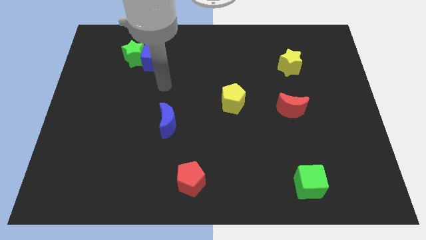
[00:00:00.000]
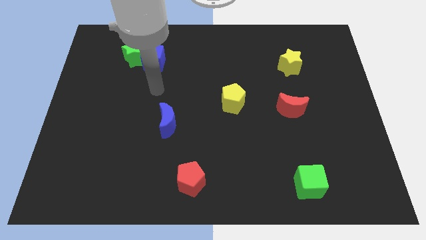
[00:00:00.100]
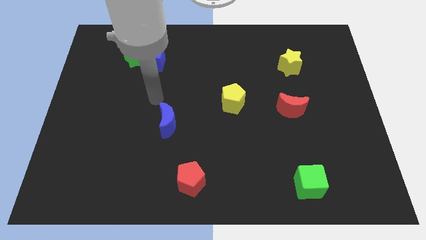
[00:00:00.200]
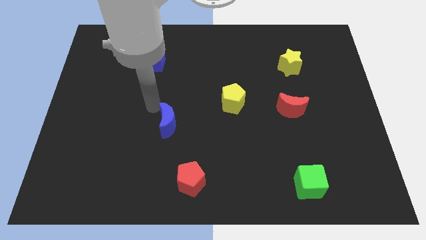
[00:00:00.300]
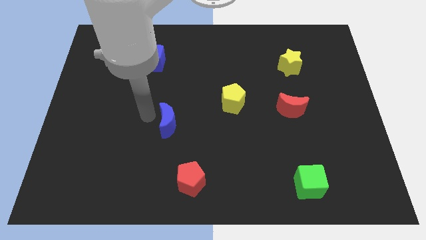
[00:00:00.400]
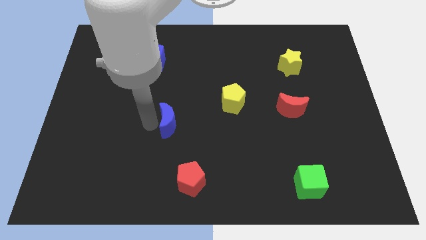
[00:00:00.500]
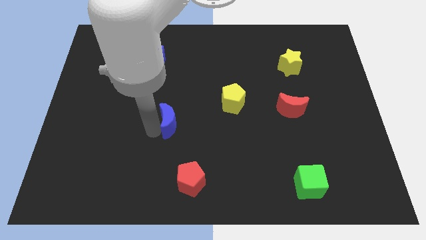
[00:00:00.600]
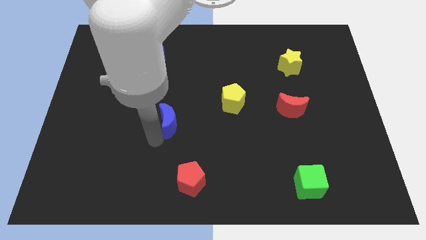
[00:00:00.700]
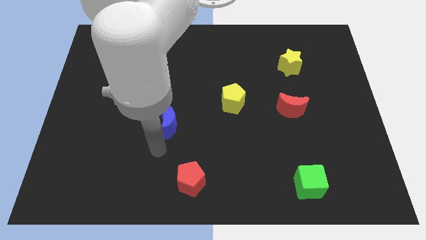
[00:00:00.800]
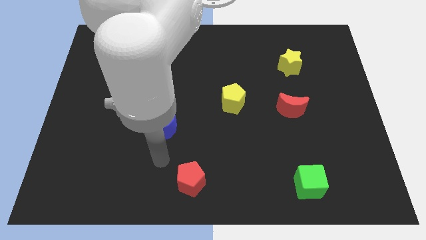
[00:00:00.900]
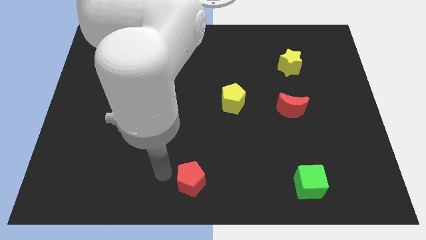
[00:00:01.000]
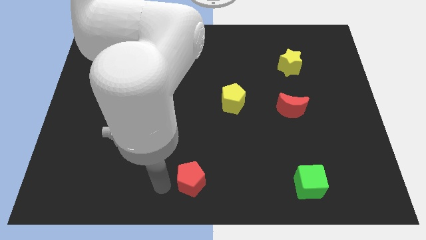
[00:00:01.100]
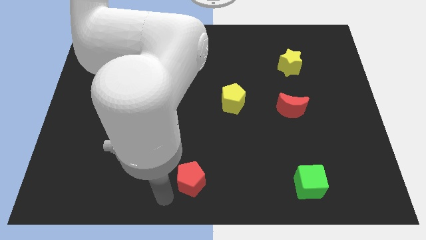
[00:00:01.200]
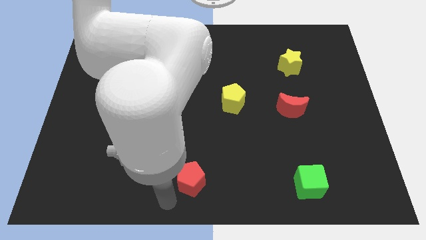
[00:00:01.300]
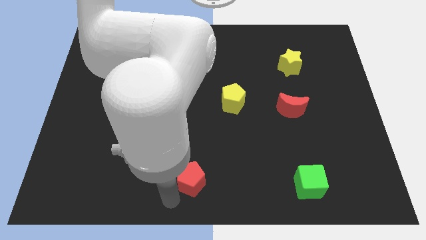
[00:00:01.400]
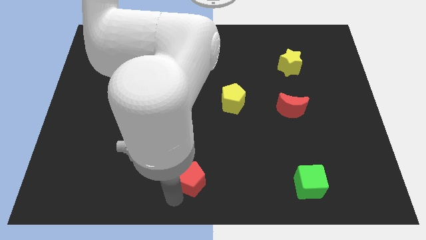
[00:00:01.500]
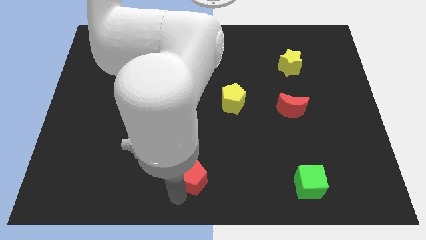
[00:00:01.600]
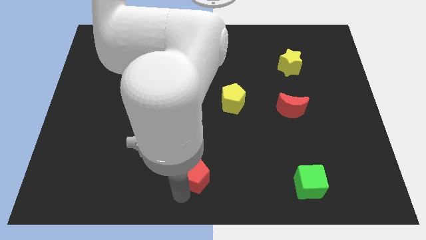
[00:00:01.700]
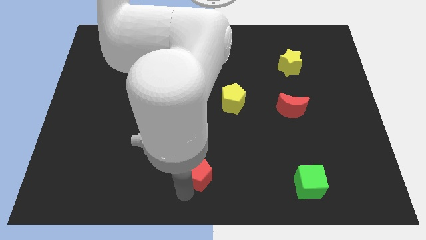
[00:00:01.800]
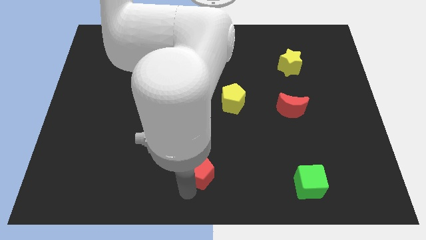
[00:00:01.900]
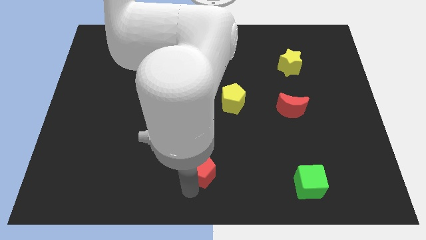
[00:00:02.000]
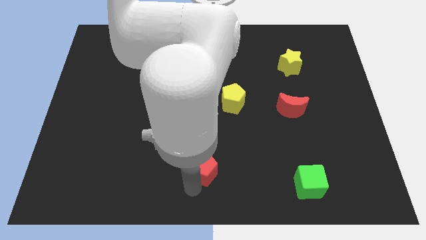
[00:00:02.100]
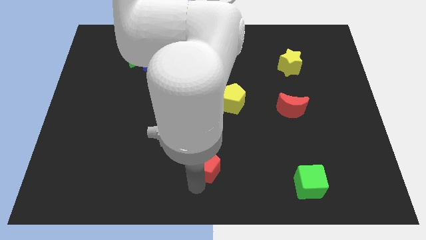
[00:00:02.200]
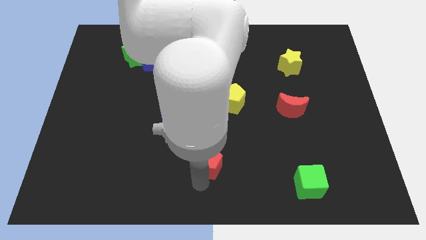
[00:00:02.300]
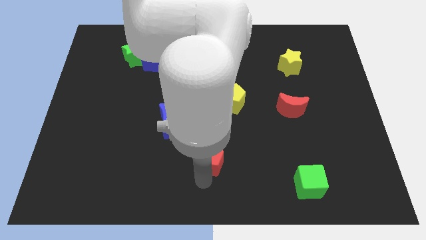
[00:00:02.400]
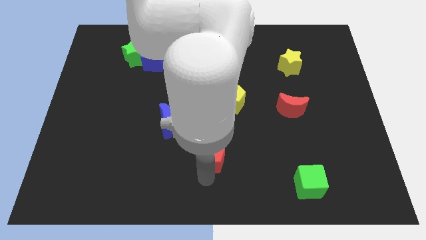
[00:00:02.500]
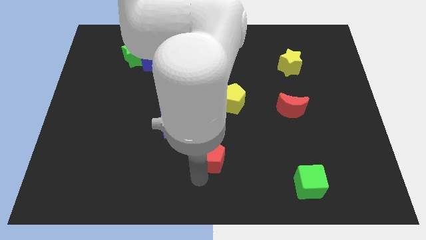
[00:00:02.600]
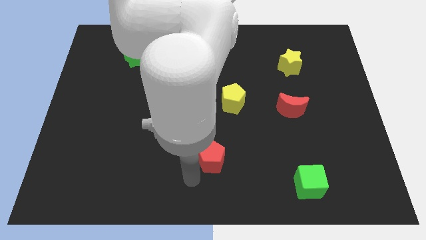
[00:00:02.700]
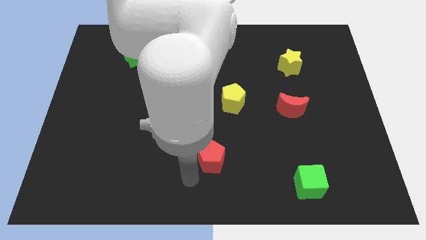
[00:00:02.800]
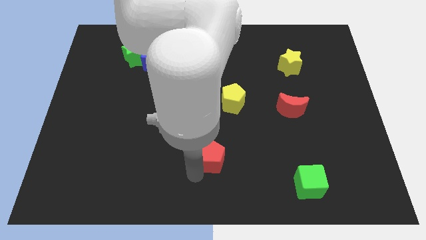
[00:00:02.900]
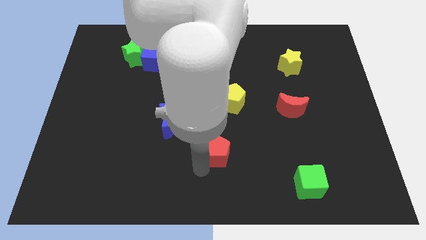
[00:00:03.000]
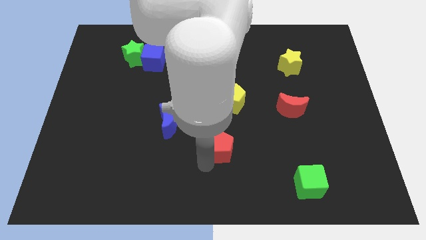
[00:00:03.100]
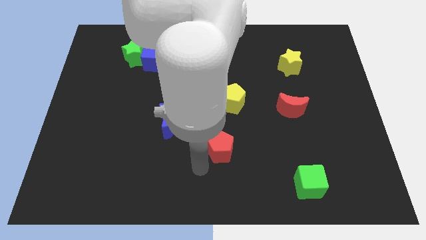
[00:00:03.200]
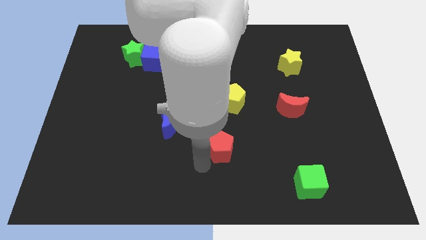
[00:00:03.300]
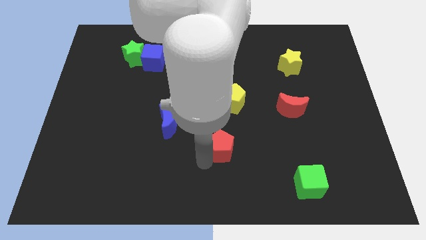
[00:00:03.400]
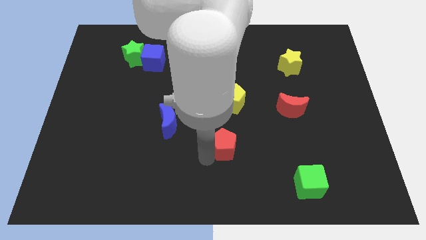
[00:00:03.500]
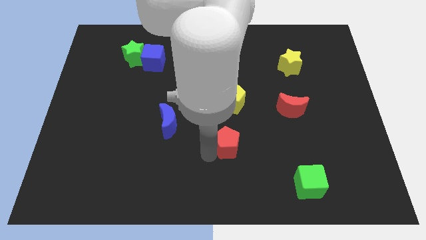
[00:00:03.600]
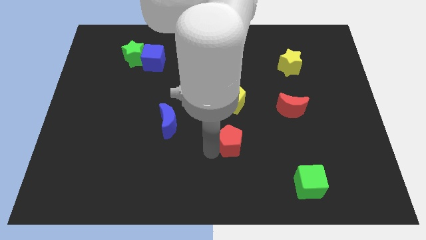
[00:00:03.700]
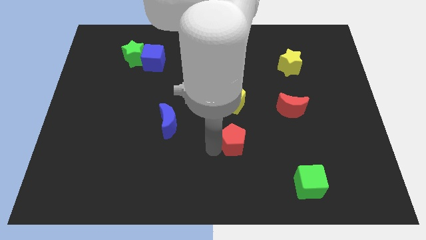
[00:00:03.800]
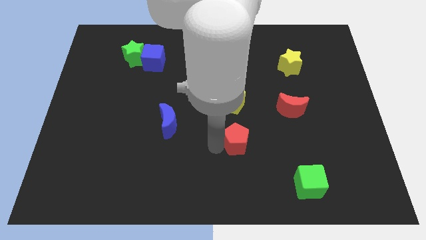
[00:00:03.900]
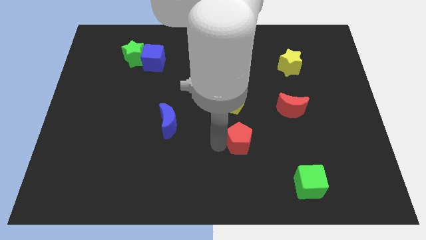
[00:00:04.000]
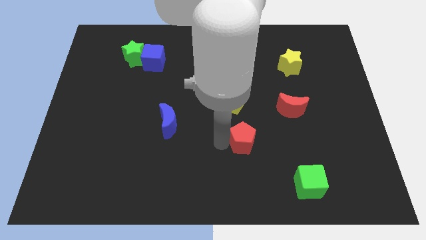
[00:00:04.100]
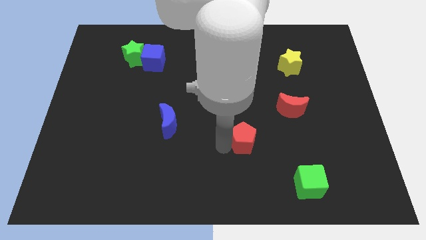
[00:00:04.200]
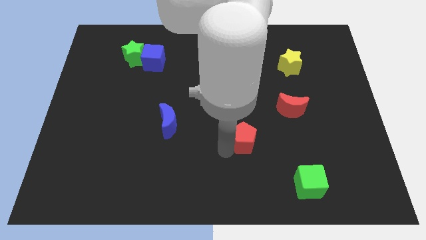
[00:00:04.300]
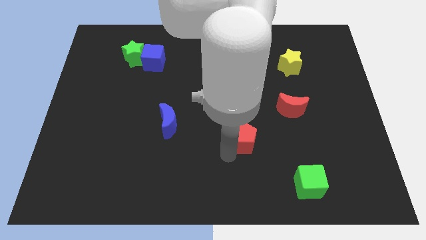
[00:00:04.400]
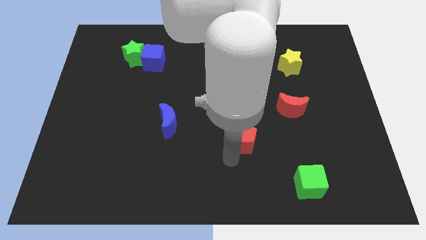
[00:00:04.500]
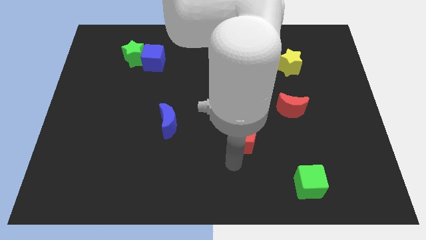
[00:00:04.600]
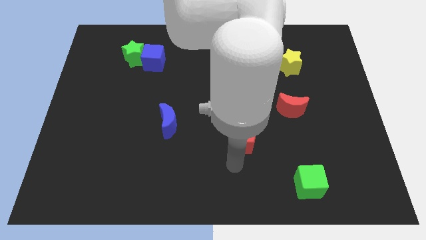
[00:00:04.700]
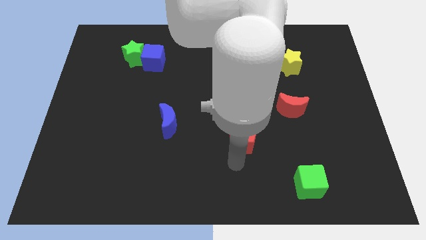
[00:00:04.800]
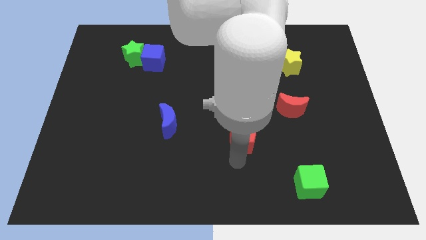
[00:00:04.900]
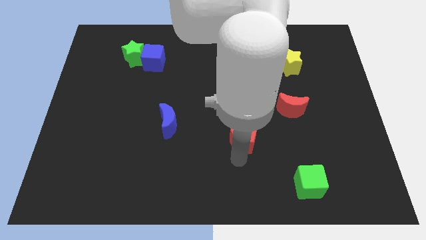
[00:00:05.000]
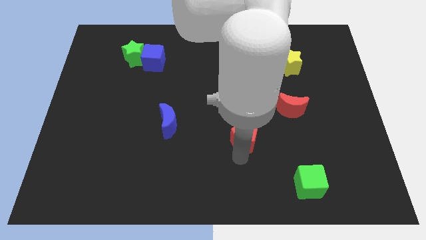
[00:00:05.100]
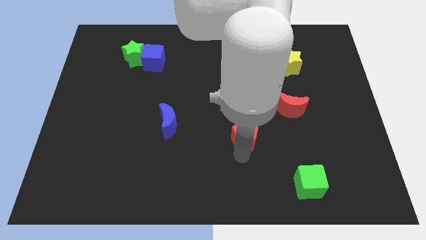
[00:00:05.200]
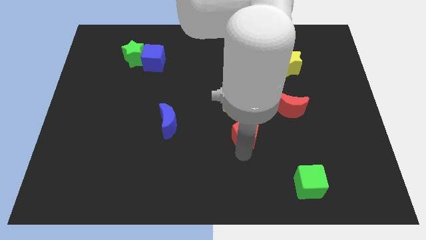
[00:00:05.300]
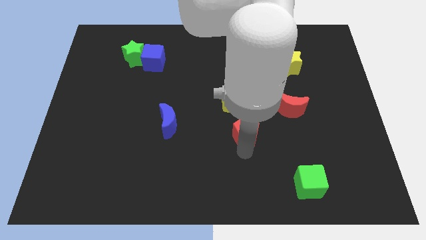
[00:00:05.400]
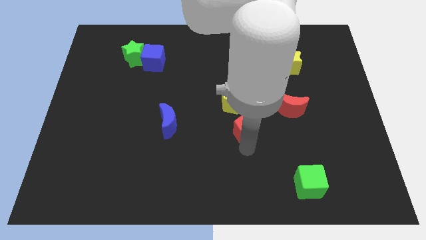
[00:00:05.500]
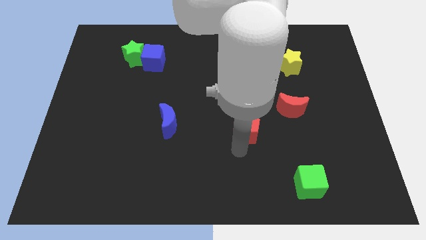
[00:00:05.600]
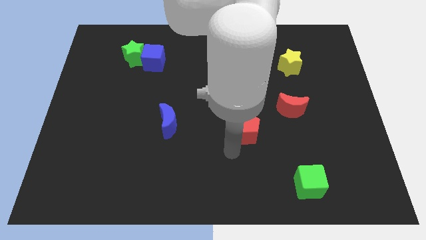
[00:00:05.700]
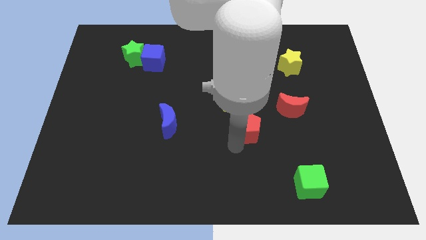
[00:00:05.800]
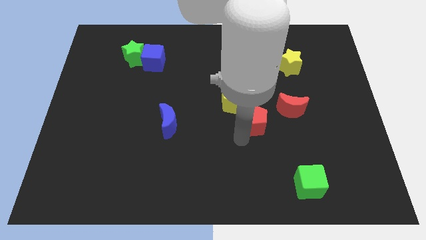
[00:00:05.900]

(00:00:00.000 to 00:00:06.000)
move the red pentagon upwards and right

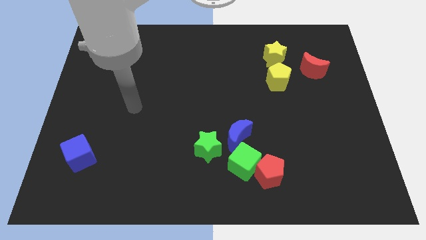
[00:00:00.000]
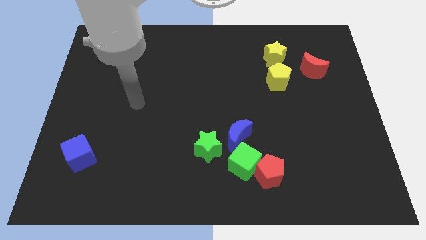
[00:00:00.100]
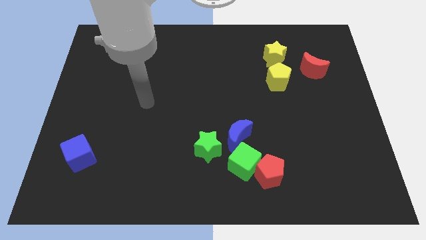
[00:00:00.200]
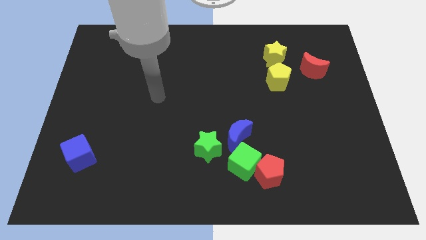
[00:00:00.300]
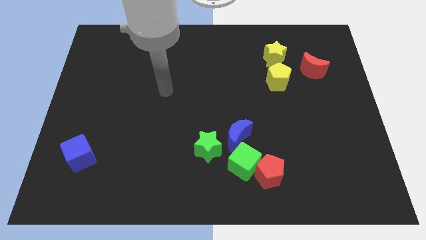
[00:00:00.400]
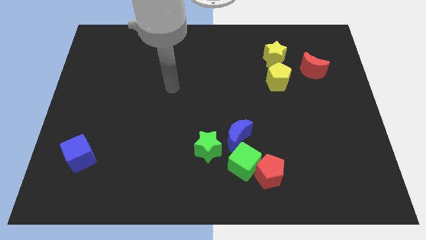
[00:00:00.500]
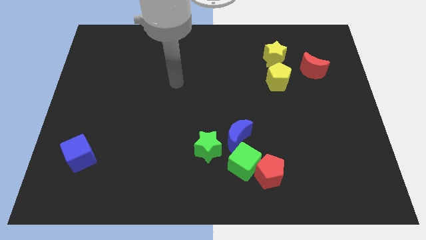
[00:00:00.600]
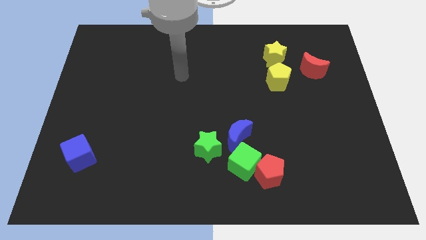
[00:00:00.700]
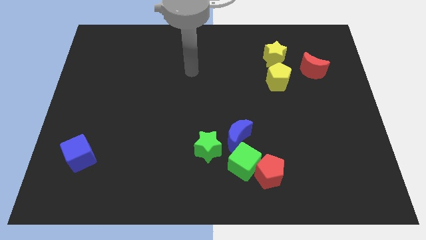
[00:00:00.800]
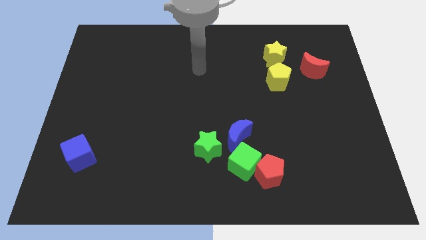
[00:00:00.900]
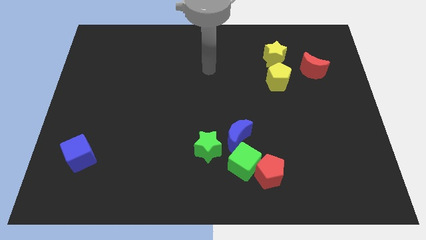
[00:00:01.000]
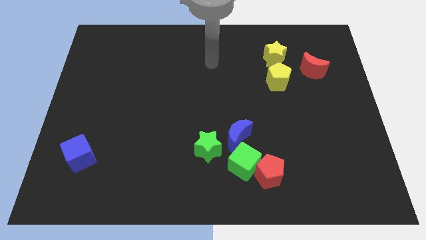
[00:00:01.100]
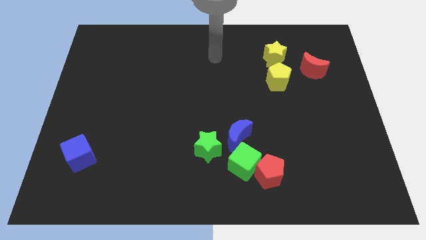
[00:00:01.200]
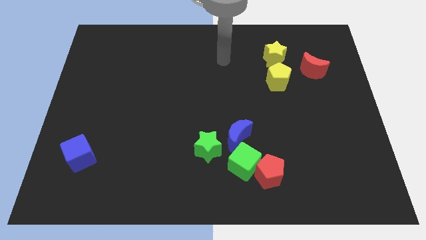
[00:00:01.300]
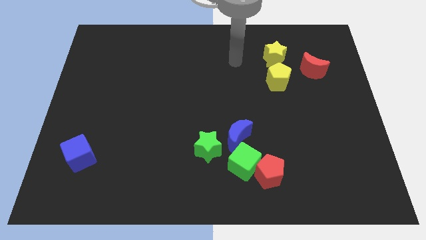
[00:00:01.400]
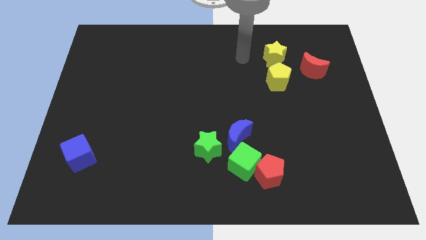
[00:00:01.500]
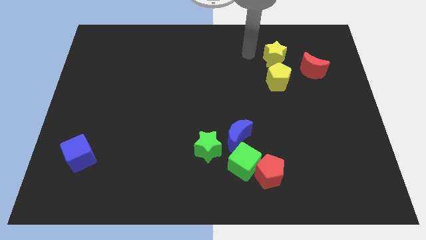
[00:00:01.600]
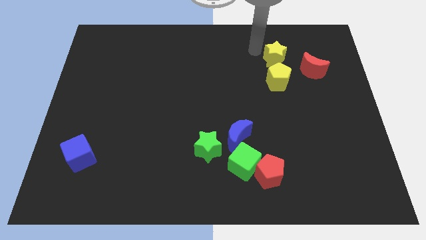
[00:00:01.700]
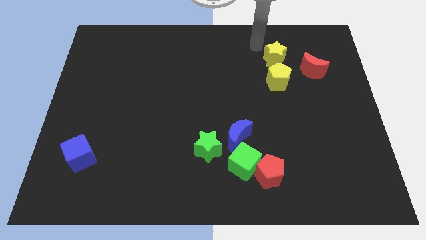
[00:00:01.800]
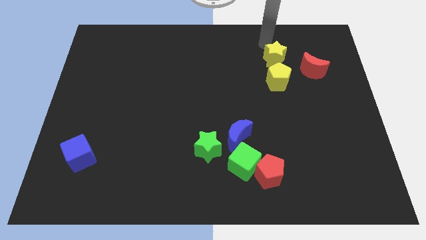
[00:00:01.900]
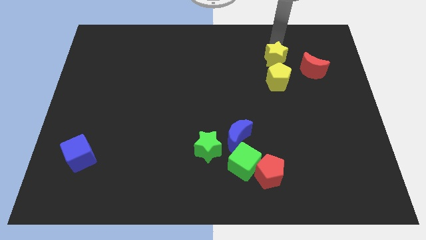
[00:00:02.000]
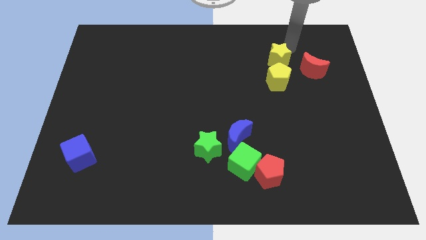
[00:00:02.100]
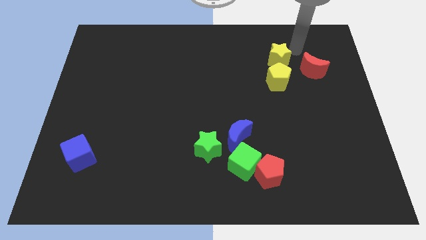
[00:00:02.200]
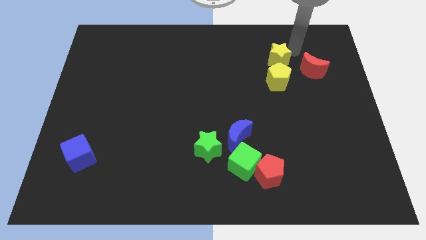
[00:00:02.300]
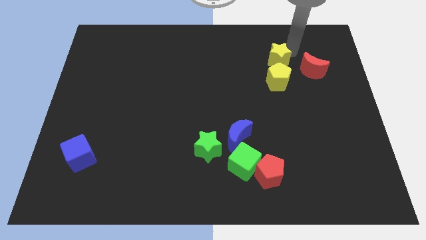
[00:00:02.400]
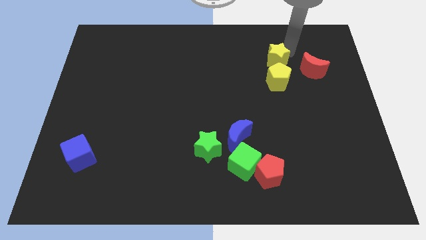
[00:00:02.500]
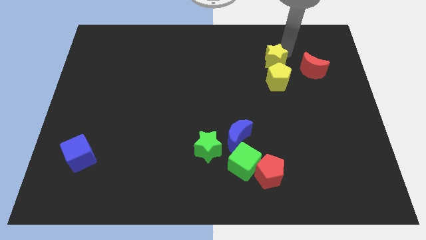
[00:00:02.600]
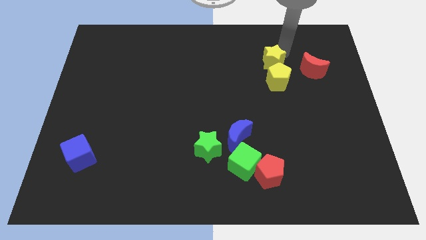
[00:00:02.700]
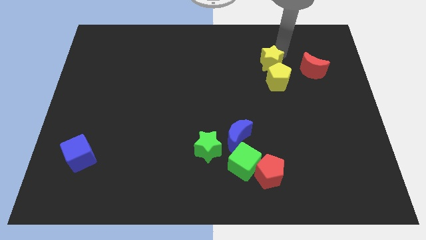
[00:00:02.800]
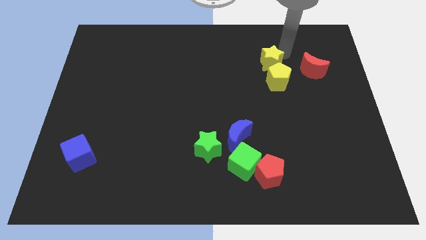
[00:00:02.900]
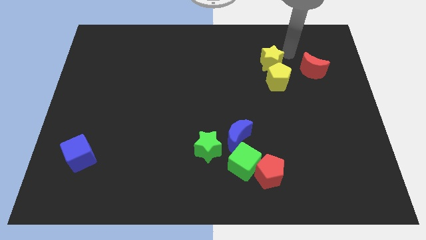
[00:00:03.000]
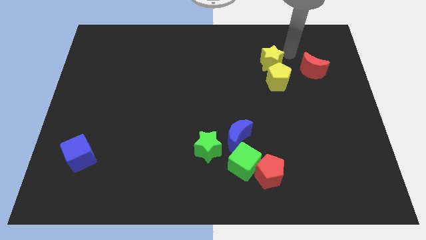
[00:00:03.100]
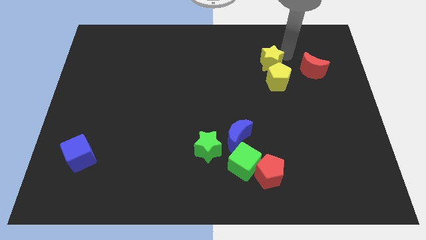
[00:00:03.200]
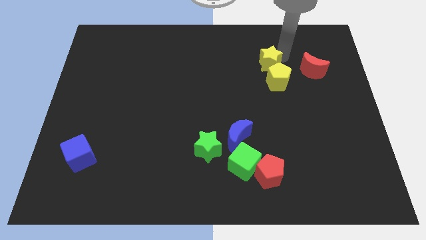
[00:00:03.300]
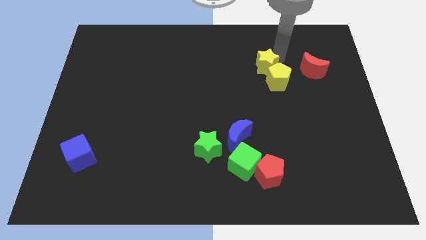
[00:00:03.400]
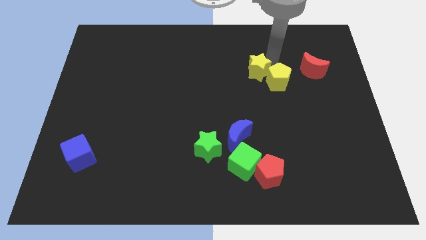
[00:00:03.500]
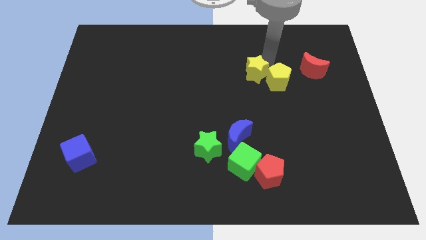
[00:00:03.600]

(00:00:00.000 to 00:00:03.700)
push the yellow star a bit downwards and to the left diagonally
